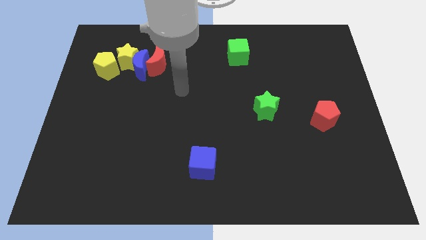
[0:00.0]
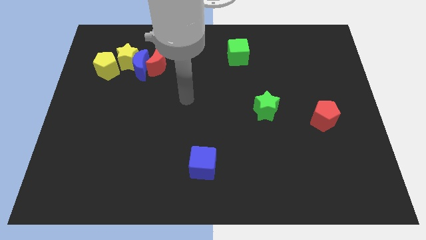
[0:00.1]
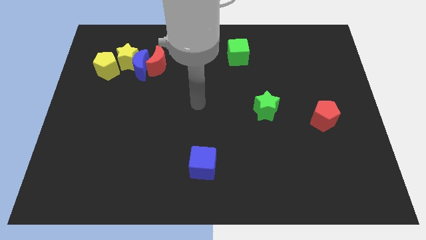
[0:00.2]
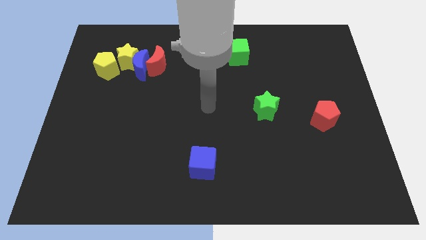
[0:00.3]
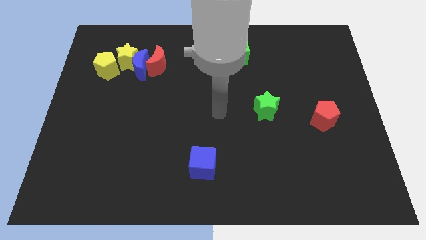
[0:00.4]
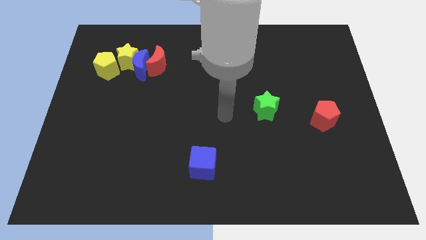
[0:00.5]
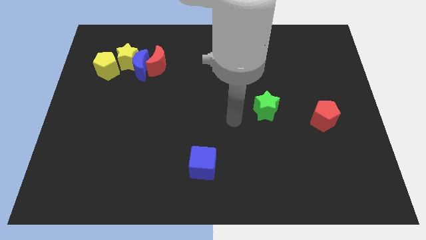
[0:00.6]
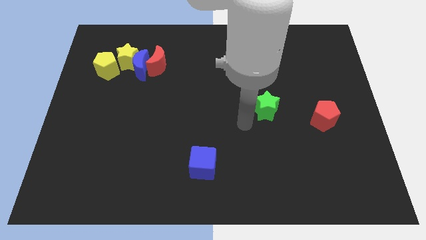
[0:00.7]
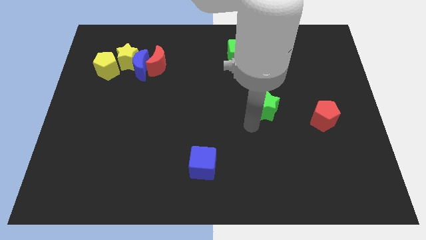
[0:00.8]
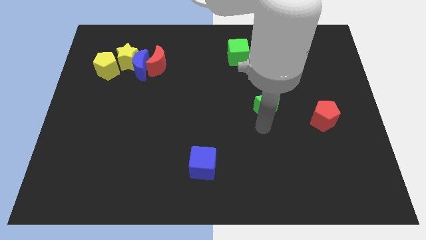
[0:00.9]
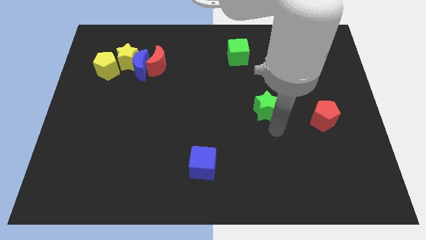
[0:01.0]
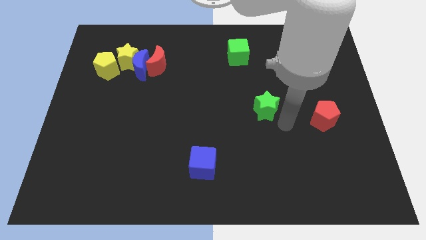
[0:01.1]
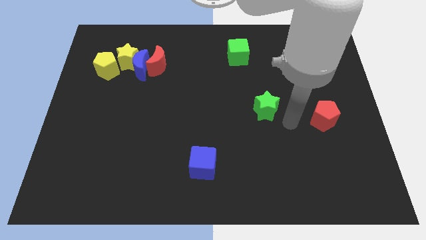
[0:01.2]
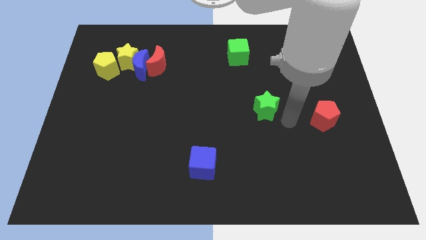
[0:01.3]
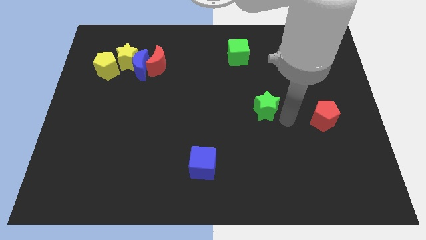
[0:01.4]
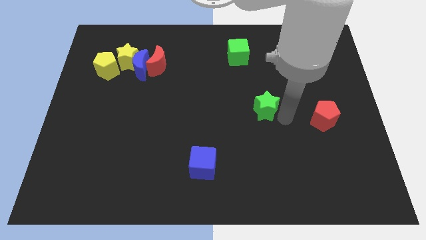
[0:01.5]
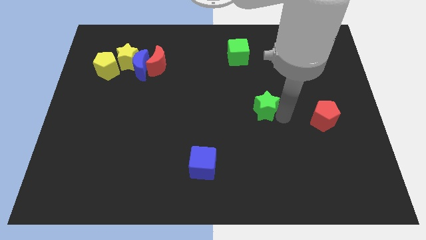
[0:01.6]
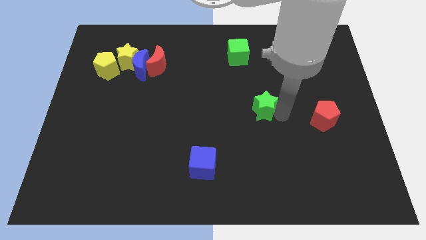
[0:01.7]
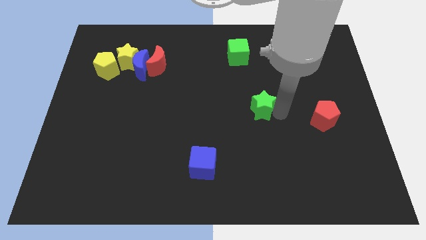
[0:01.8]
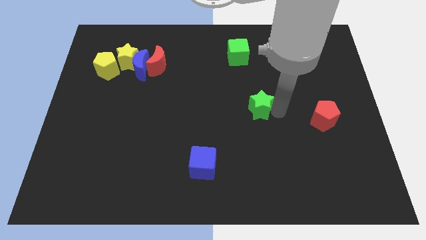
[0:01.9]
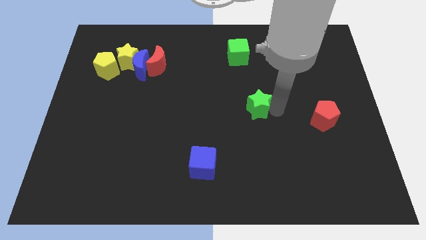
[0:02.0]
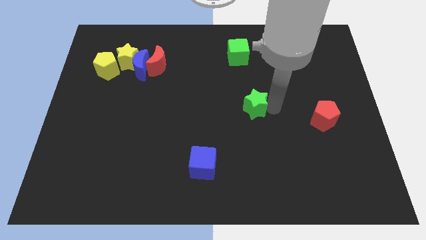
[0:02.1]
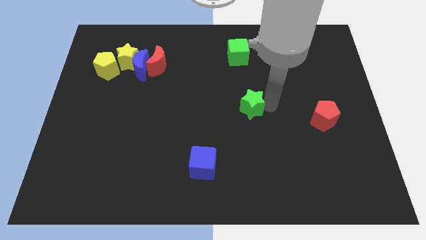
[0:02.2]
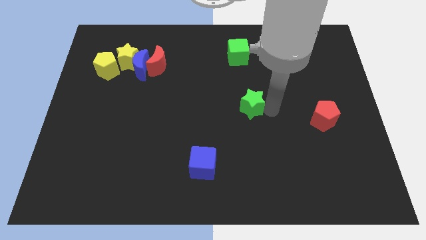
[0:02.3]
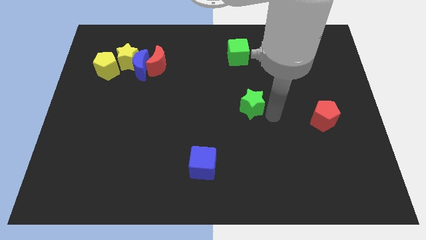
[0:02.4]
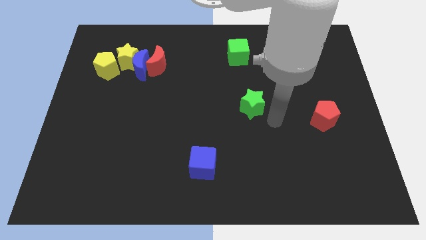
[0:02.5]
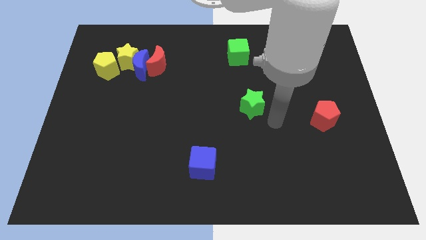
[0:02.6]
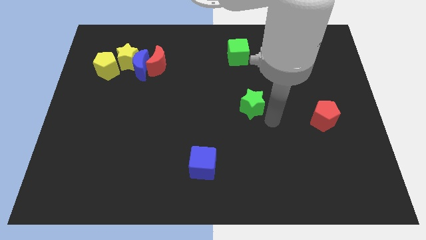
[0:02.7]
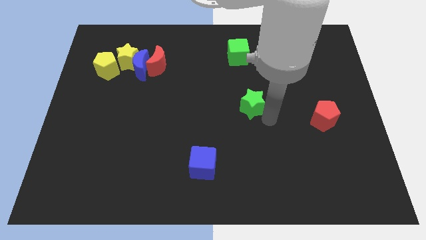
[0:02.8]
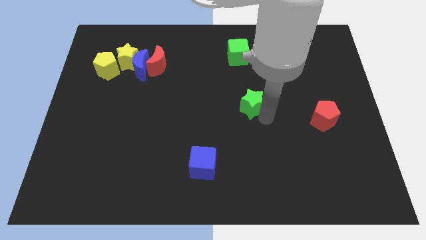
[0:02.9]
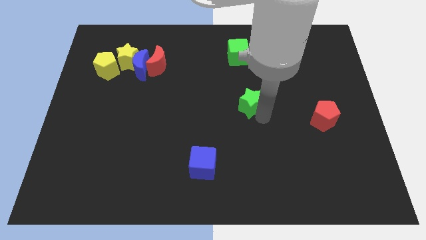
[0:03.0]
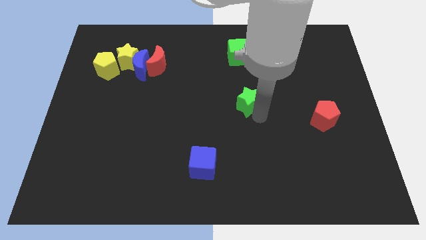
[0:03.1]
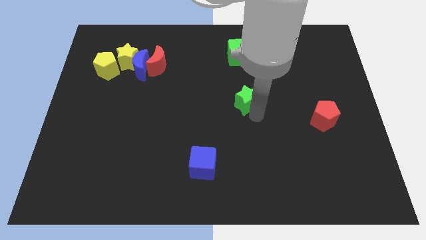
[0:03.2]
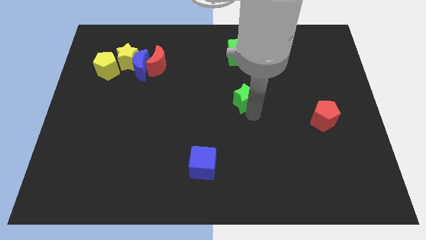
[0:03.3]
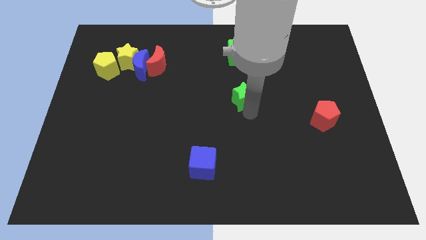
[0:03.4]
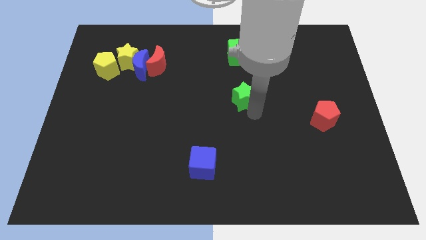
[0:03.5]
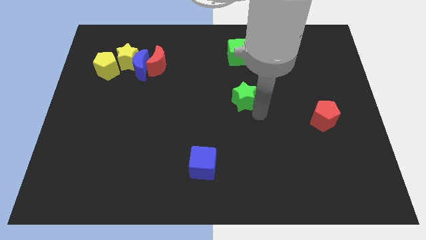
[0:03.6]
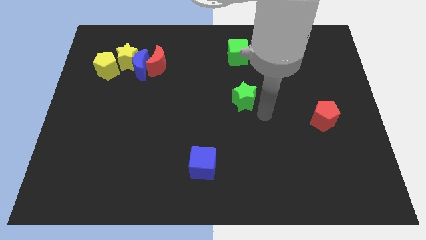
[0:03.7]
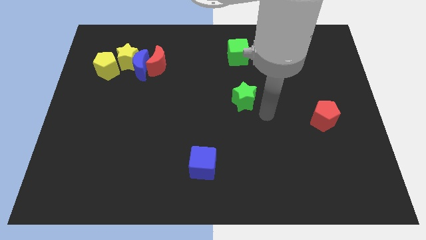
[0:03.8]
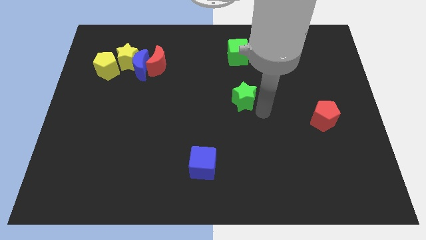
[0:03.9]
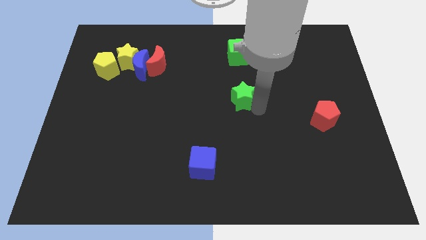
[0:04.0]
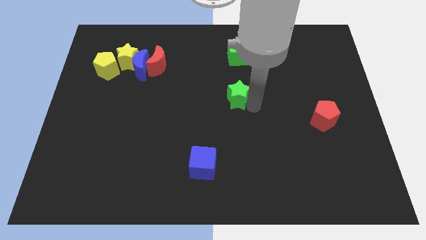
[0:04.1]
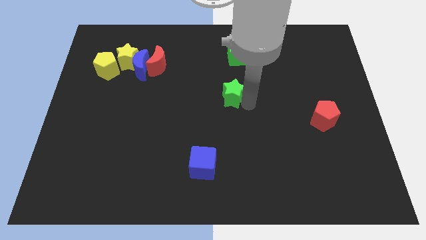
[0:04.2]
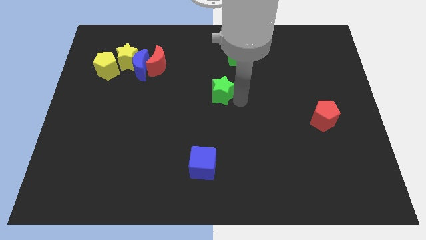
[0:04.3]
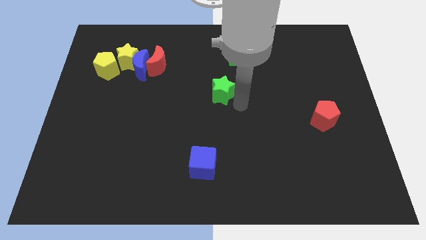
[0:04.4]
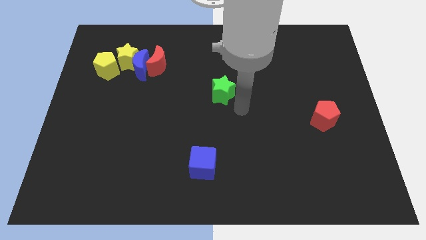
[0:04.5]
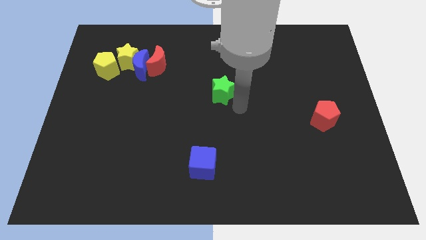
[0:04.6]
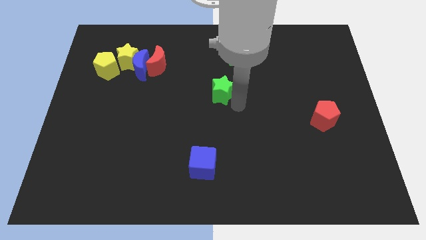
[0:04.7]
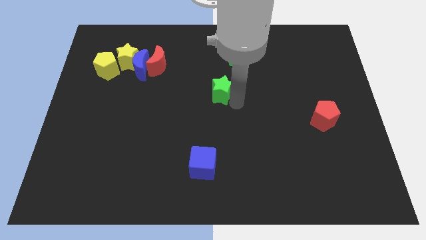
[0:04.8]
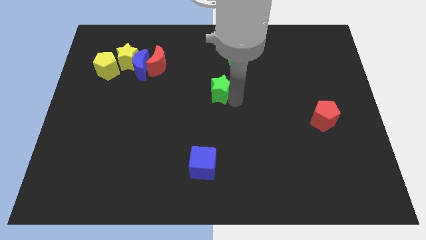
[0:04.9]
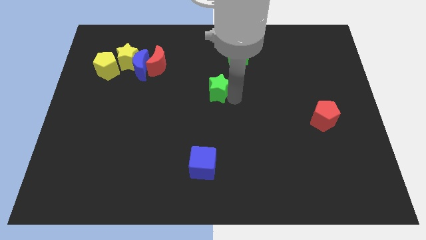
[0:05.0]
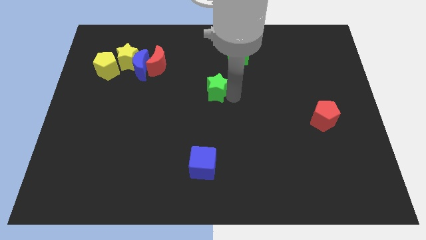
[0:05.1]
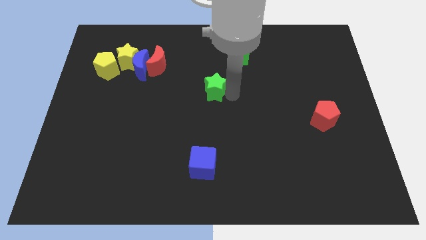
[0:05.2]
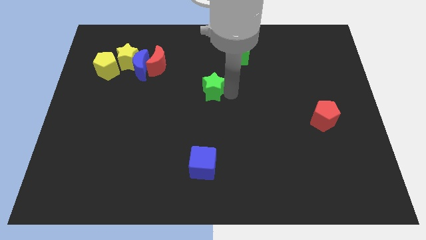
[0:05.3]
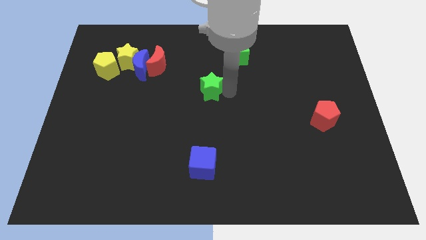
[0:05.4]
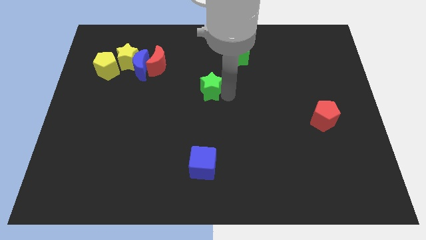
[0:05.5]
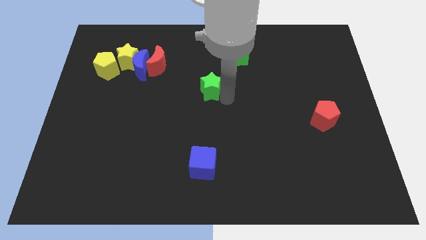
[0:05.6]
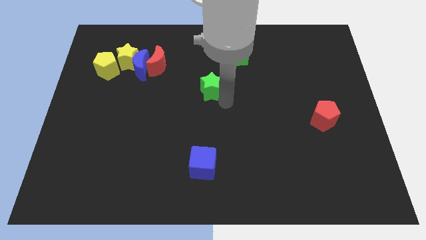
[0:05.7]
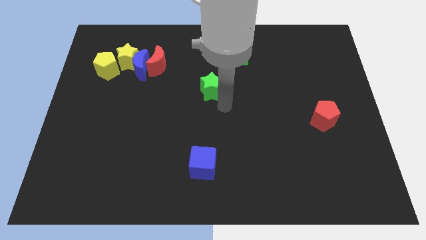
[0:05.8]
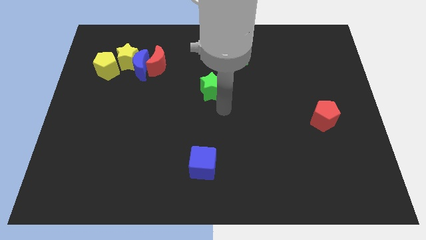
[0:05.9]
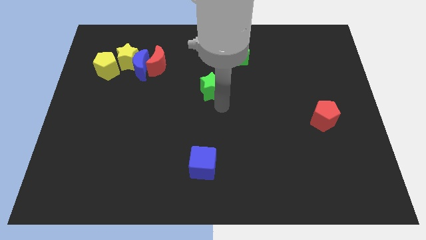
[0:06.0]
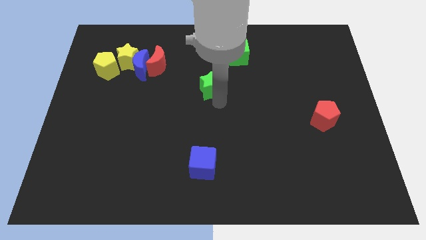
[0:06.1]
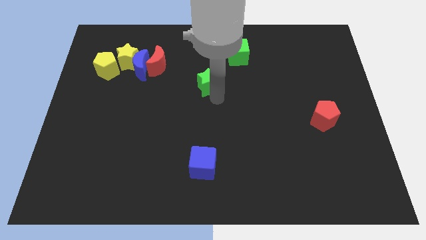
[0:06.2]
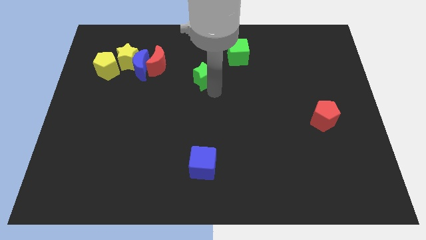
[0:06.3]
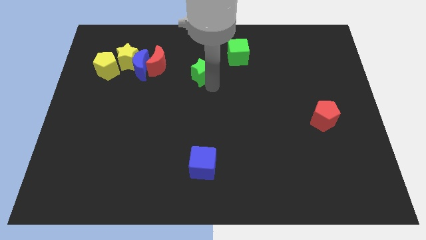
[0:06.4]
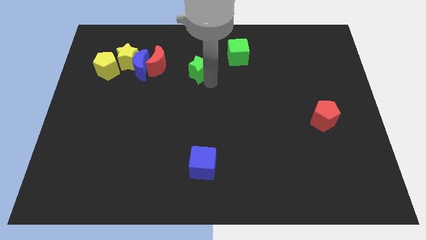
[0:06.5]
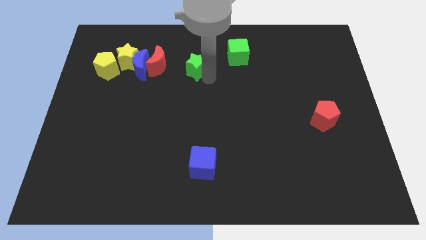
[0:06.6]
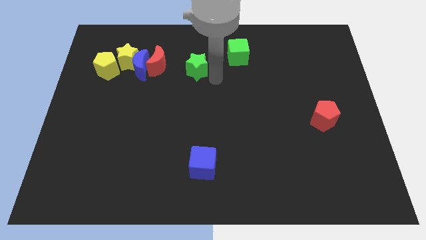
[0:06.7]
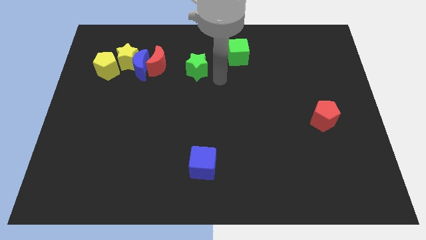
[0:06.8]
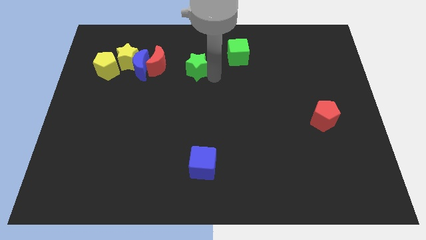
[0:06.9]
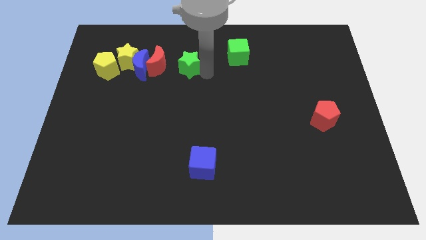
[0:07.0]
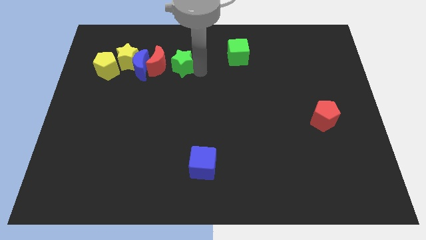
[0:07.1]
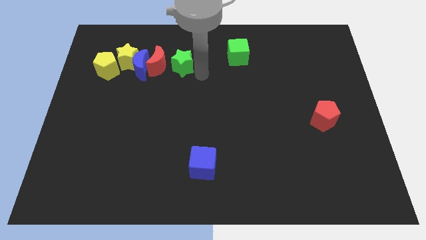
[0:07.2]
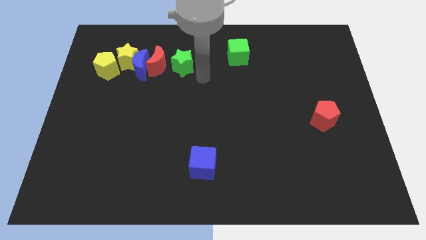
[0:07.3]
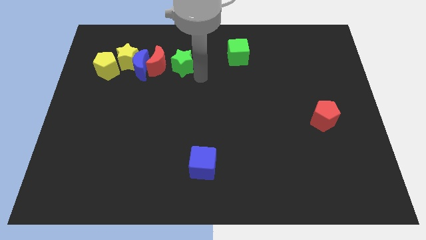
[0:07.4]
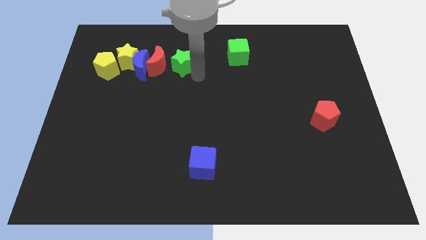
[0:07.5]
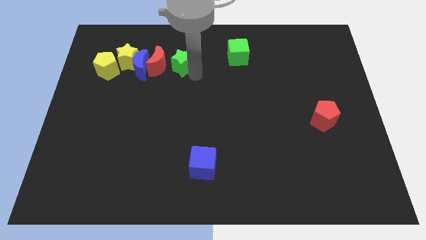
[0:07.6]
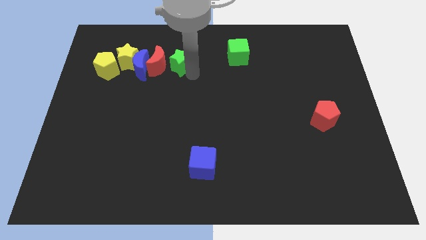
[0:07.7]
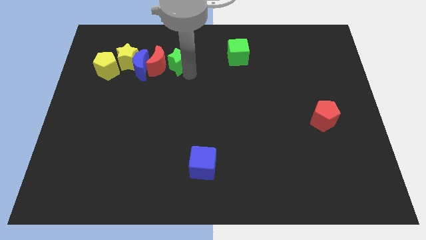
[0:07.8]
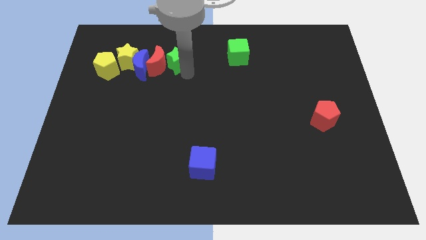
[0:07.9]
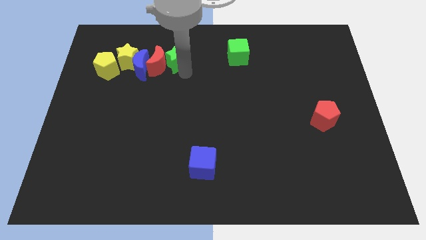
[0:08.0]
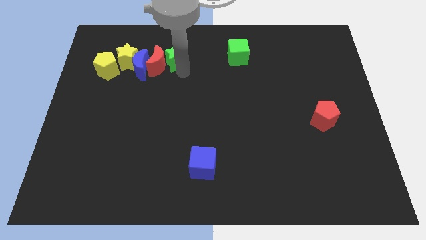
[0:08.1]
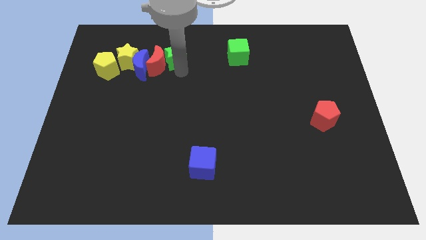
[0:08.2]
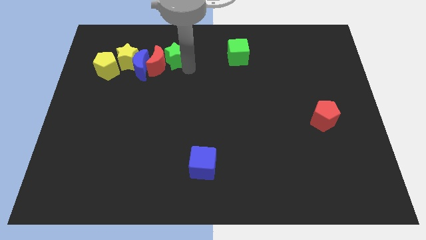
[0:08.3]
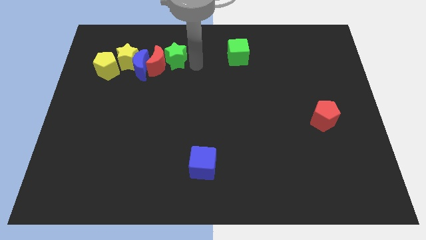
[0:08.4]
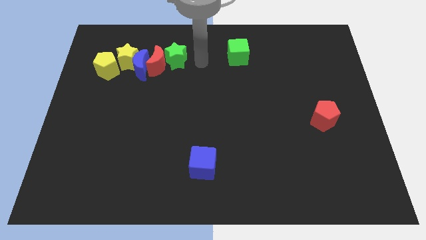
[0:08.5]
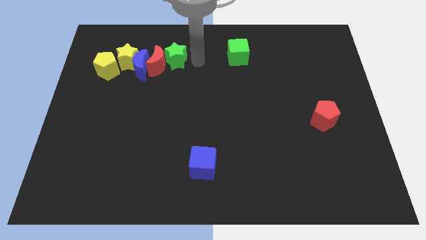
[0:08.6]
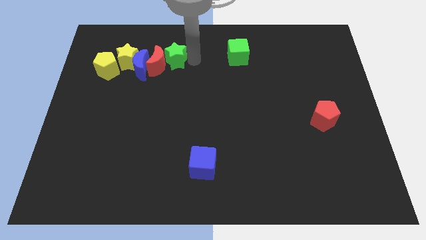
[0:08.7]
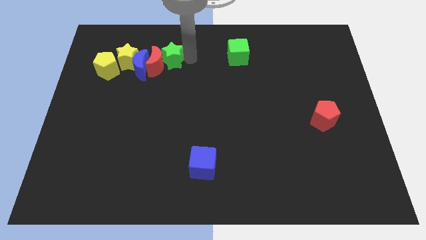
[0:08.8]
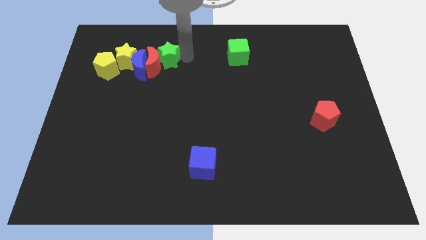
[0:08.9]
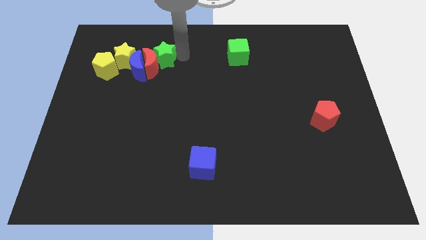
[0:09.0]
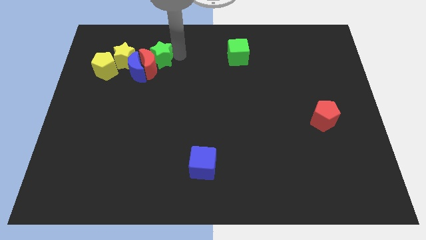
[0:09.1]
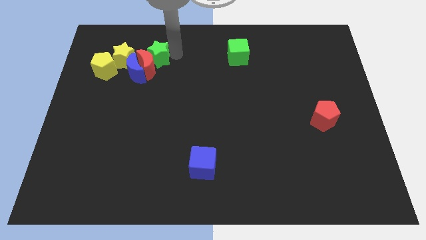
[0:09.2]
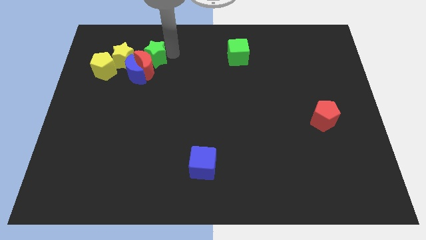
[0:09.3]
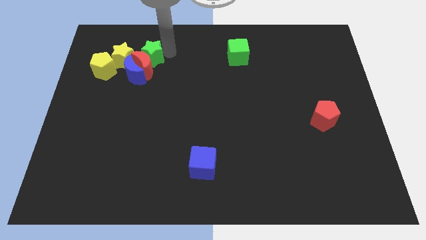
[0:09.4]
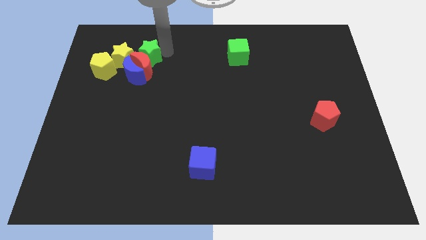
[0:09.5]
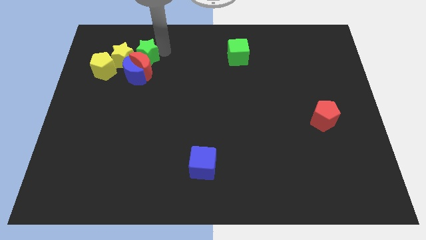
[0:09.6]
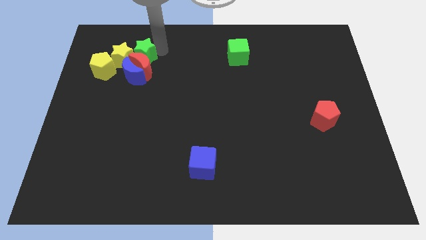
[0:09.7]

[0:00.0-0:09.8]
push the green star to the top right side of the yellow pentagon
